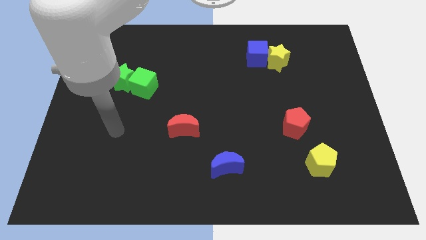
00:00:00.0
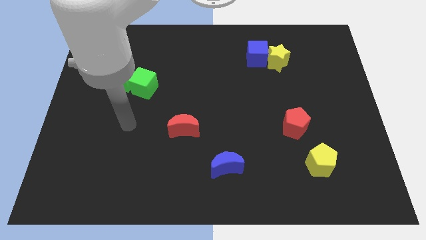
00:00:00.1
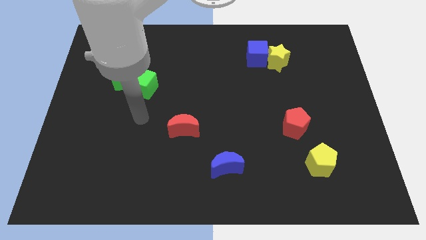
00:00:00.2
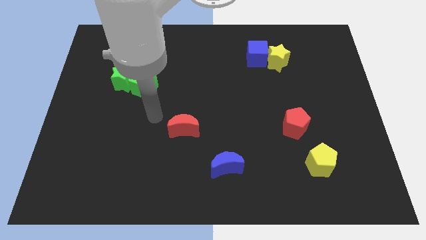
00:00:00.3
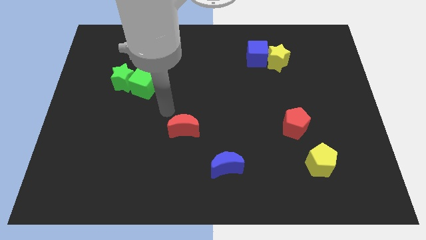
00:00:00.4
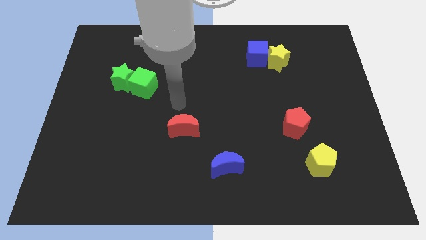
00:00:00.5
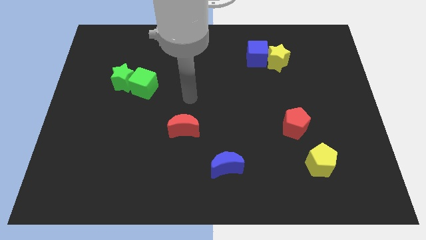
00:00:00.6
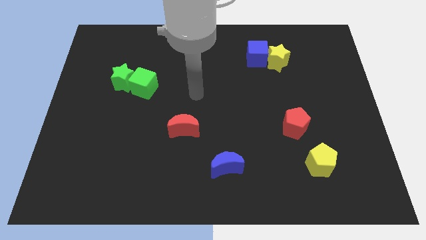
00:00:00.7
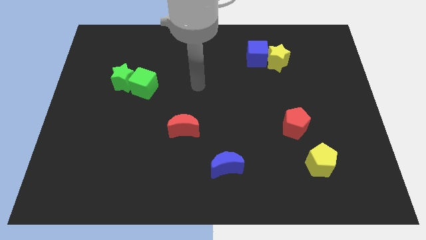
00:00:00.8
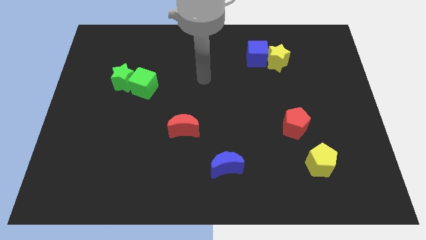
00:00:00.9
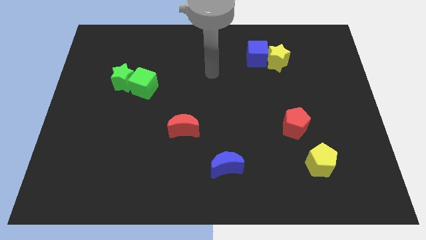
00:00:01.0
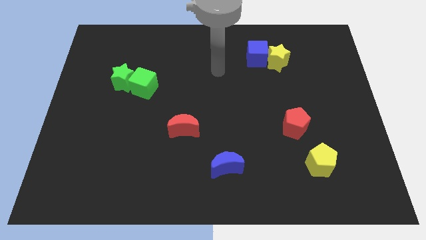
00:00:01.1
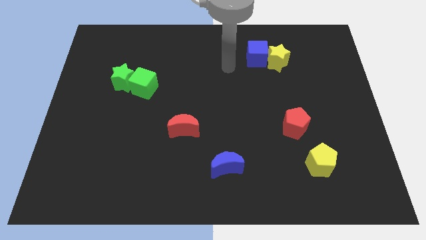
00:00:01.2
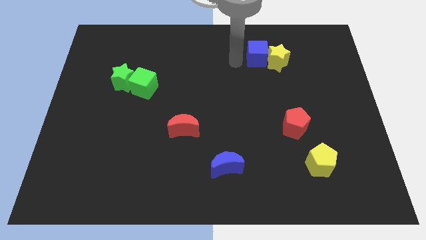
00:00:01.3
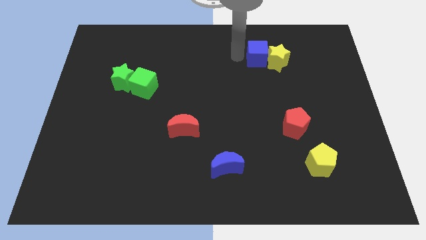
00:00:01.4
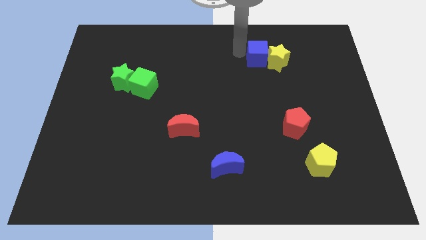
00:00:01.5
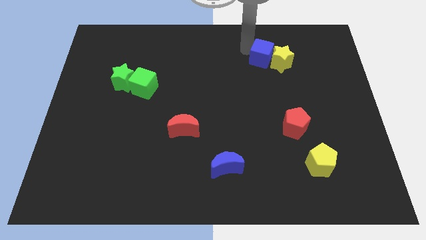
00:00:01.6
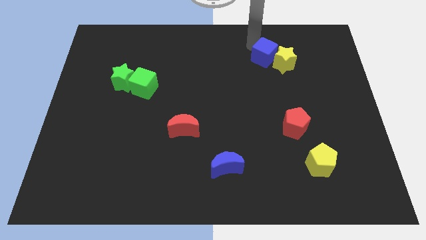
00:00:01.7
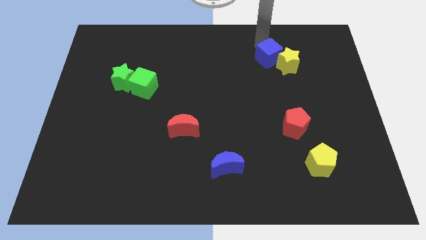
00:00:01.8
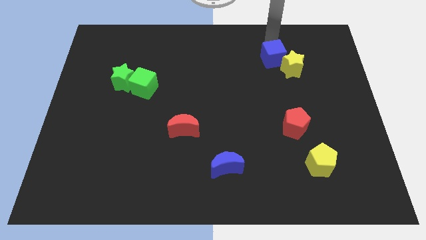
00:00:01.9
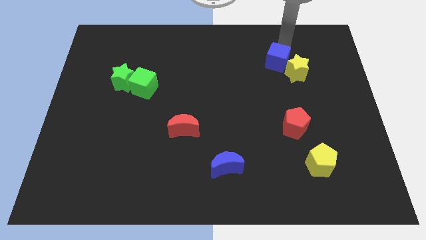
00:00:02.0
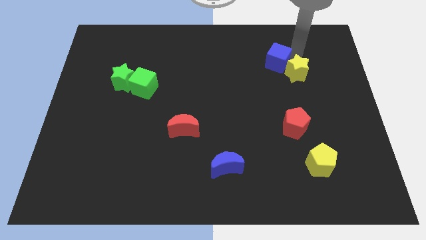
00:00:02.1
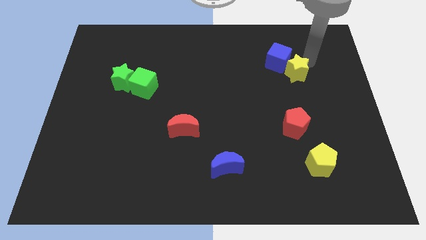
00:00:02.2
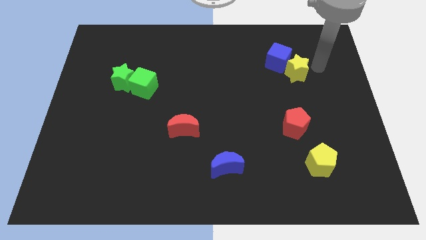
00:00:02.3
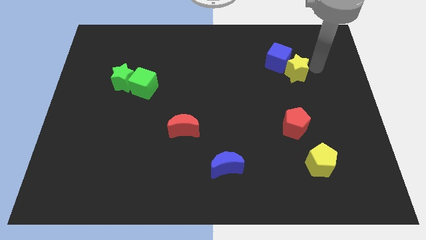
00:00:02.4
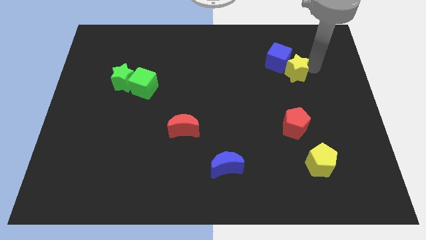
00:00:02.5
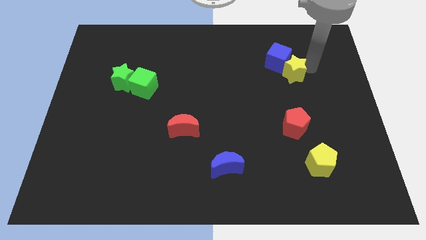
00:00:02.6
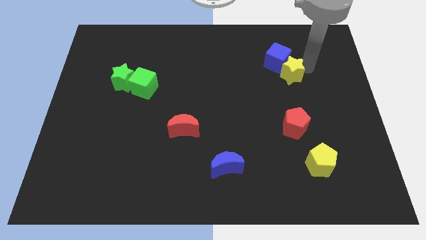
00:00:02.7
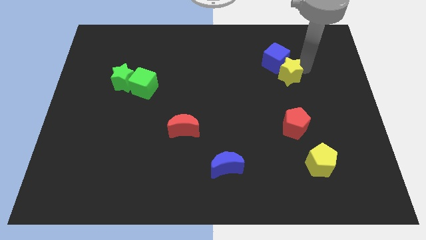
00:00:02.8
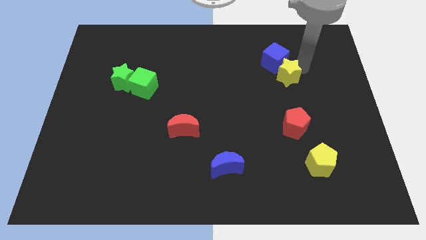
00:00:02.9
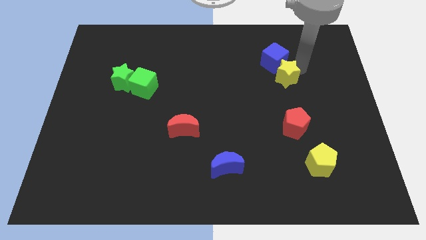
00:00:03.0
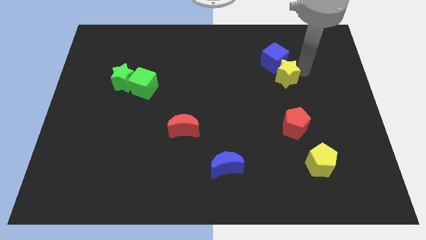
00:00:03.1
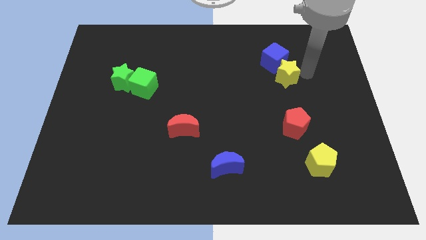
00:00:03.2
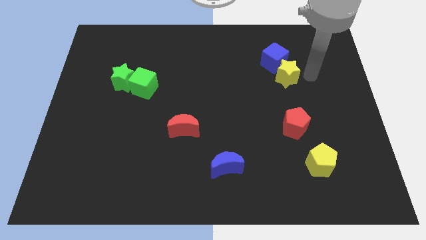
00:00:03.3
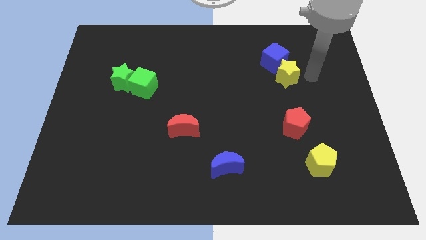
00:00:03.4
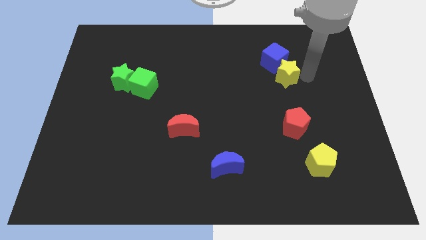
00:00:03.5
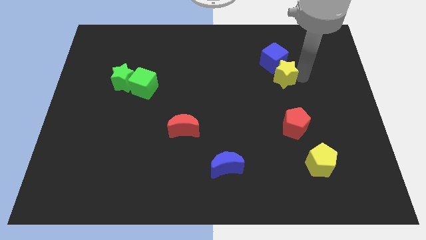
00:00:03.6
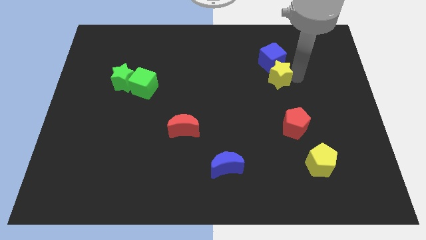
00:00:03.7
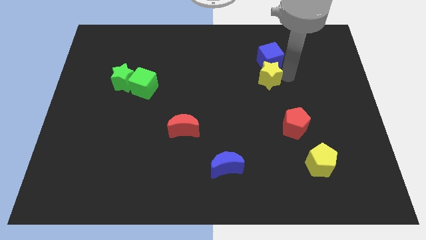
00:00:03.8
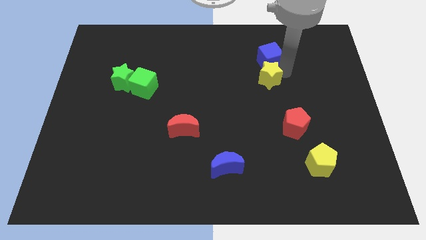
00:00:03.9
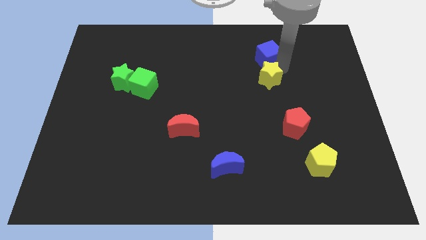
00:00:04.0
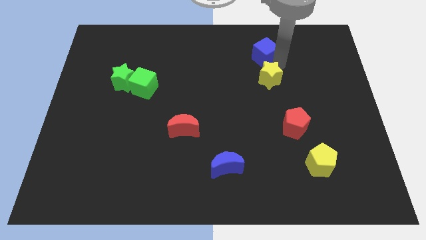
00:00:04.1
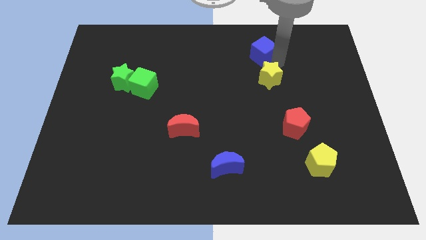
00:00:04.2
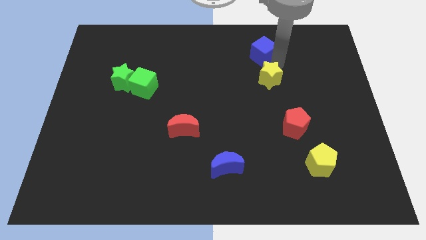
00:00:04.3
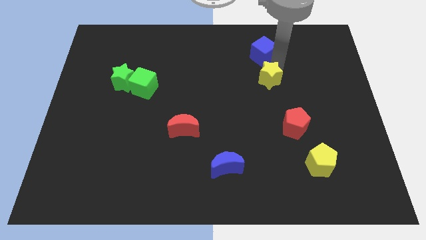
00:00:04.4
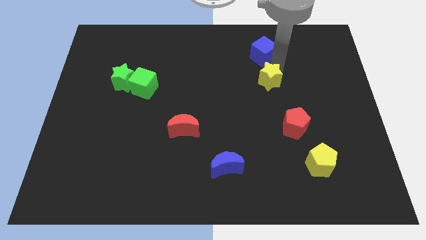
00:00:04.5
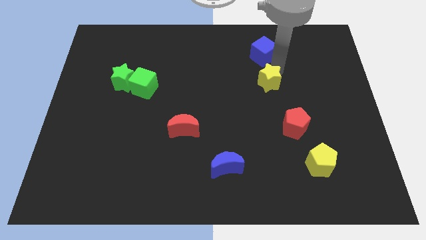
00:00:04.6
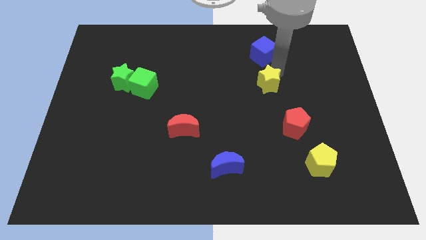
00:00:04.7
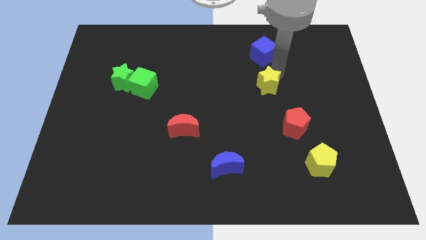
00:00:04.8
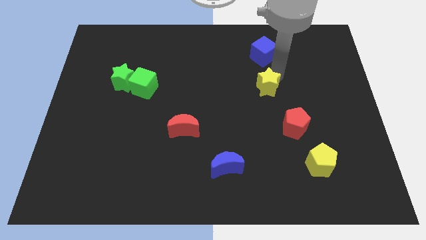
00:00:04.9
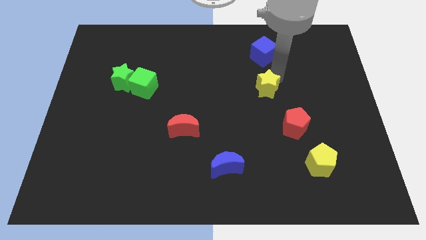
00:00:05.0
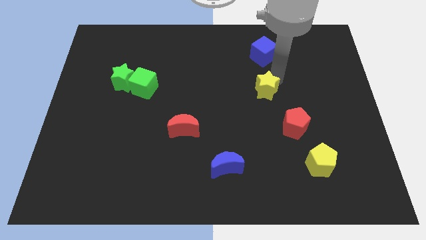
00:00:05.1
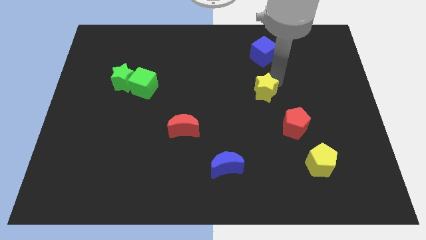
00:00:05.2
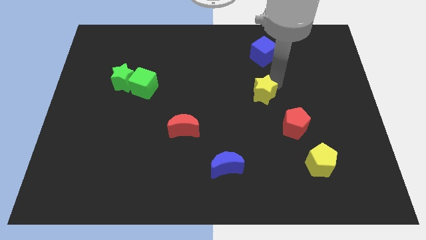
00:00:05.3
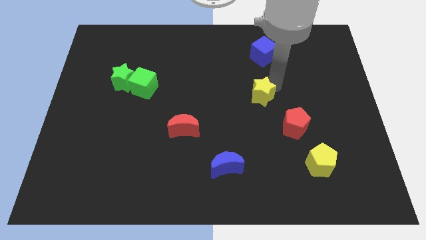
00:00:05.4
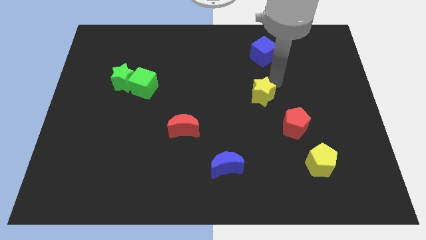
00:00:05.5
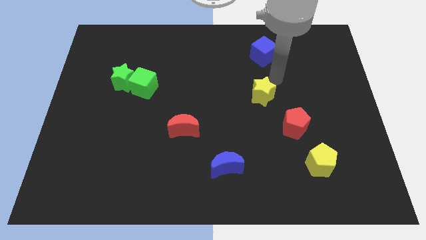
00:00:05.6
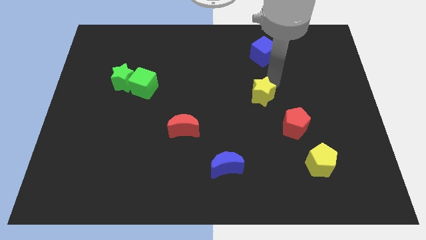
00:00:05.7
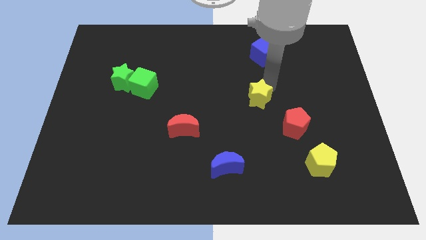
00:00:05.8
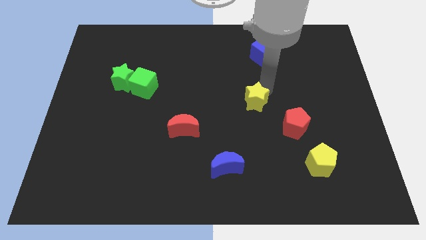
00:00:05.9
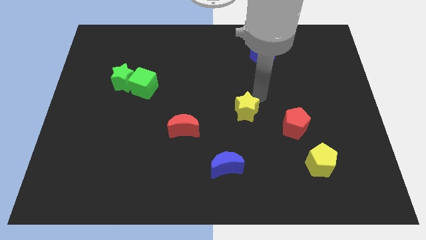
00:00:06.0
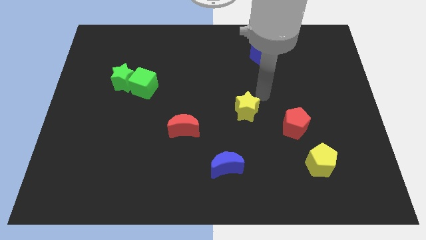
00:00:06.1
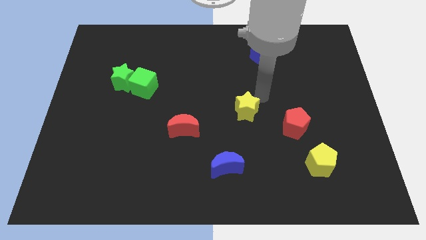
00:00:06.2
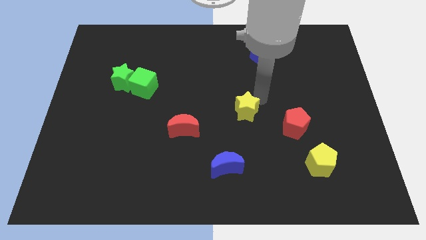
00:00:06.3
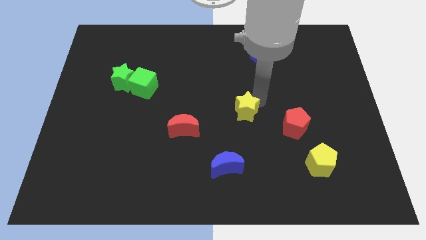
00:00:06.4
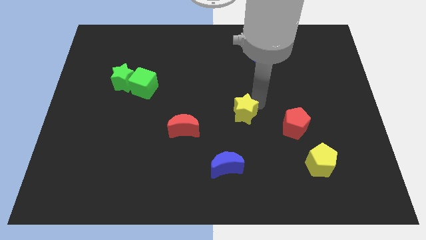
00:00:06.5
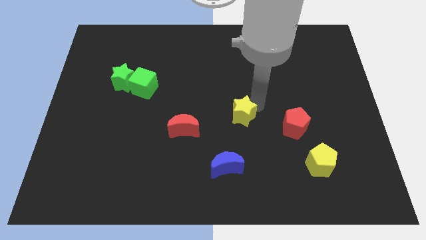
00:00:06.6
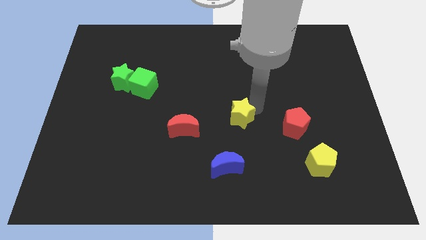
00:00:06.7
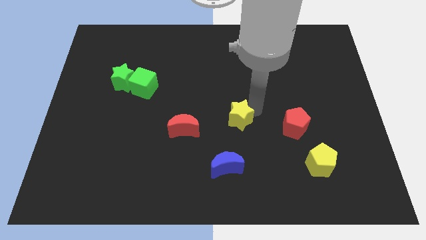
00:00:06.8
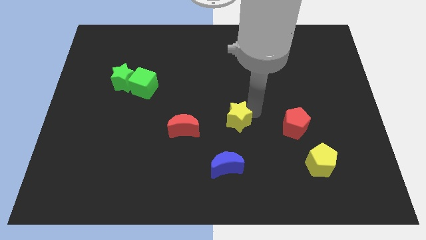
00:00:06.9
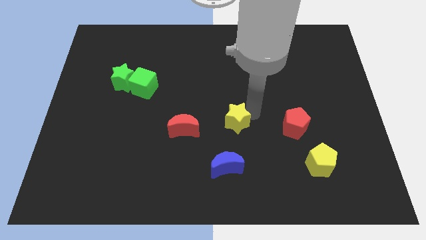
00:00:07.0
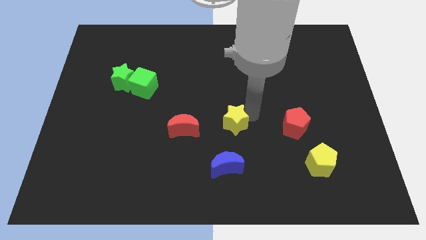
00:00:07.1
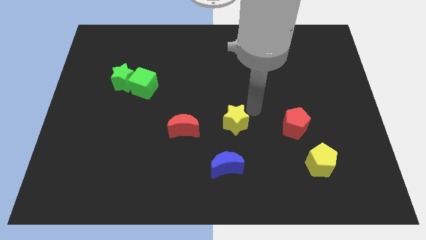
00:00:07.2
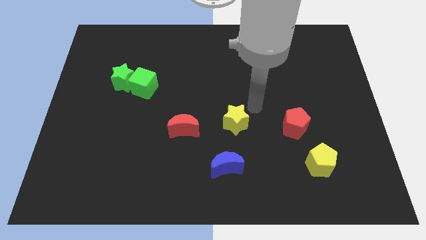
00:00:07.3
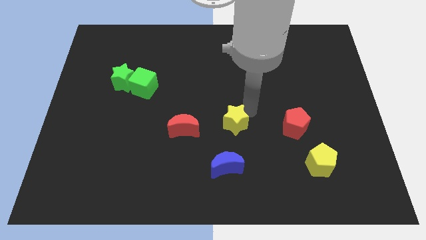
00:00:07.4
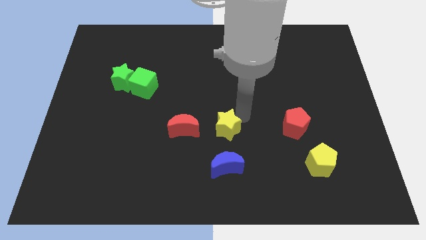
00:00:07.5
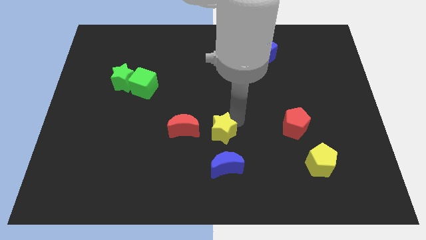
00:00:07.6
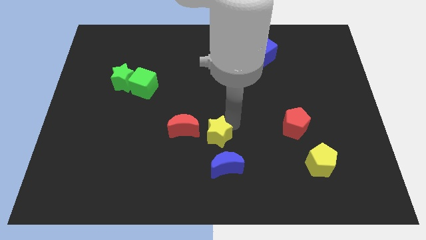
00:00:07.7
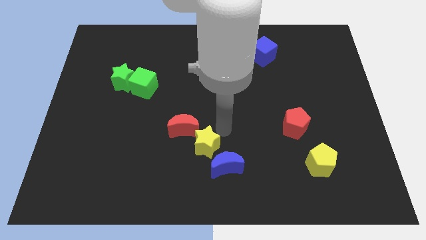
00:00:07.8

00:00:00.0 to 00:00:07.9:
slide the yellow star to the bottom of the red moon
